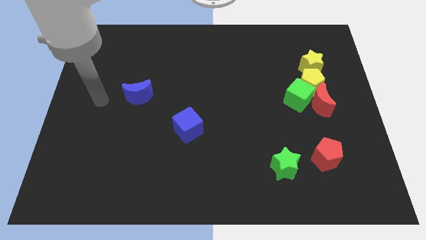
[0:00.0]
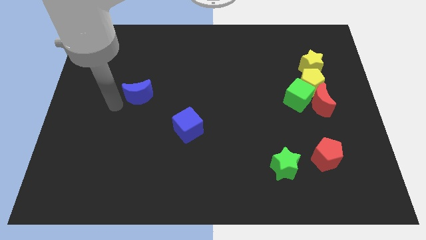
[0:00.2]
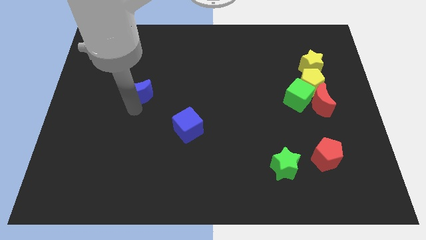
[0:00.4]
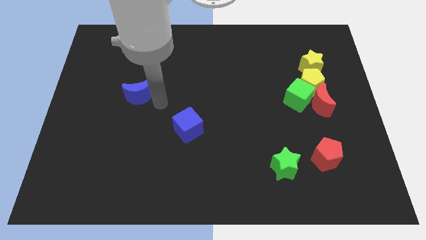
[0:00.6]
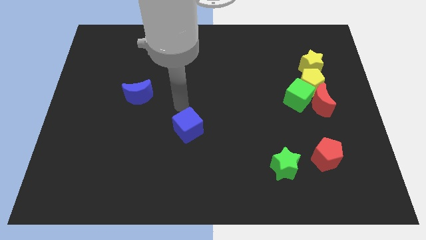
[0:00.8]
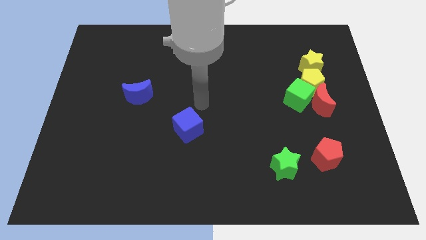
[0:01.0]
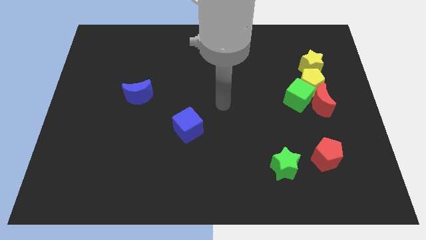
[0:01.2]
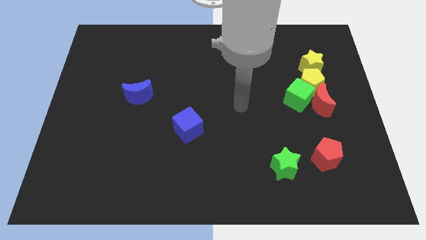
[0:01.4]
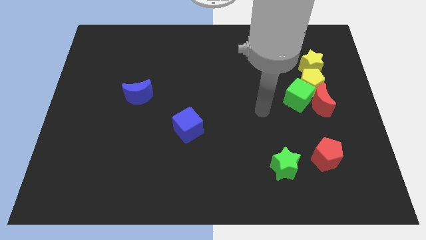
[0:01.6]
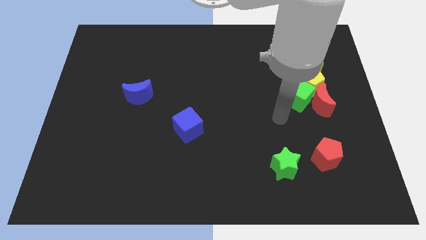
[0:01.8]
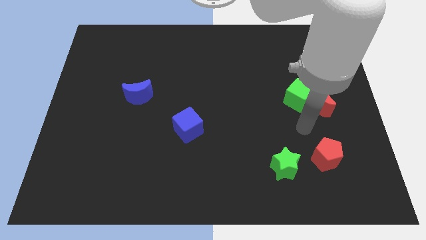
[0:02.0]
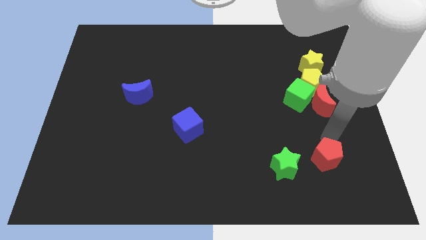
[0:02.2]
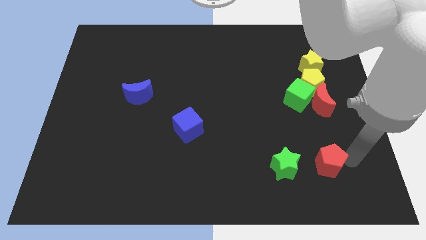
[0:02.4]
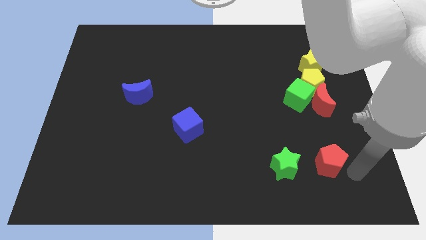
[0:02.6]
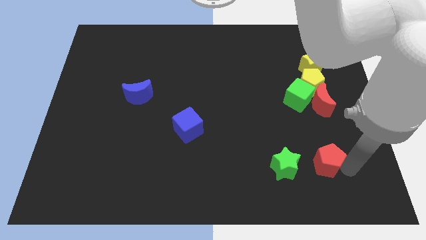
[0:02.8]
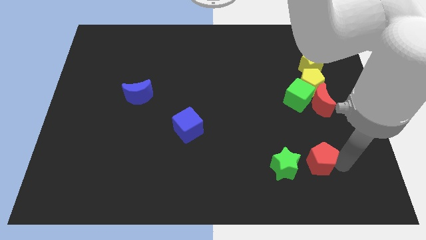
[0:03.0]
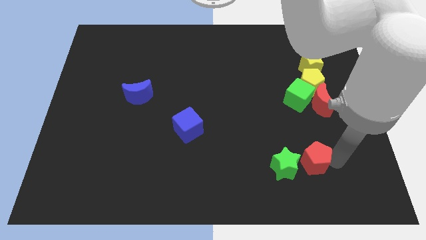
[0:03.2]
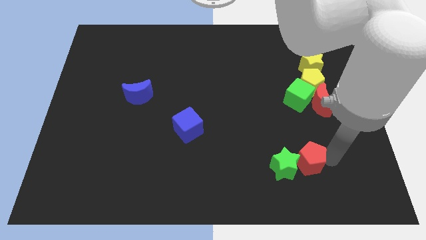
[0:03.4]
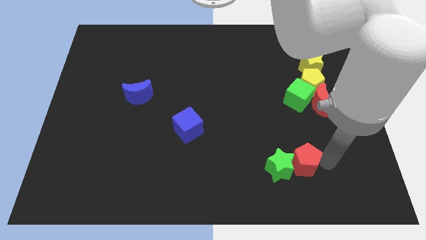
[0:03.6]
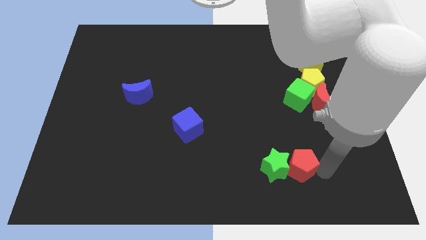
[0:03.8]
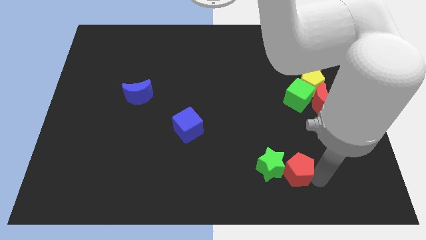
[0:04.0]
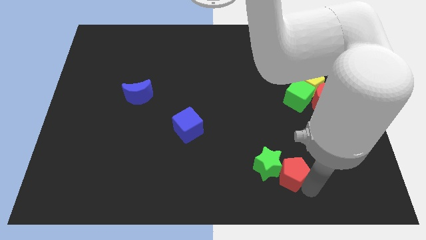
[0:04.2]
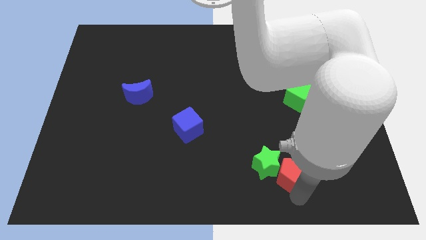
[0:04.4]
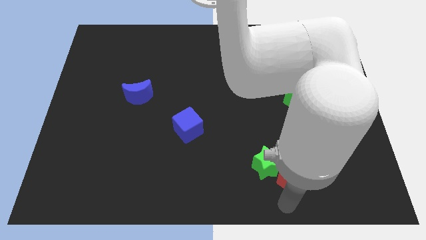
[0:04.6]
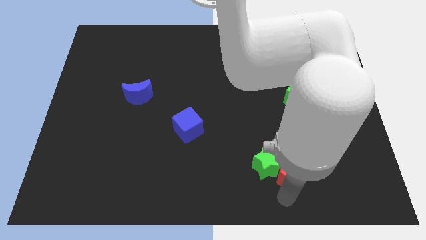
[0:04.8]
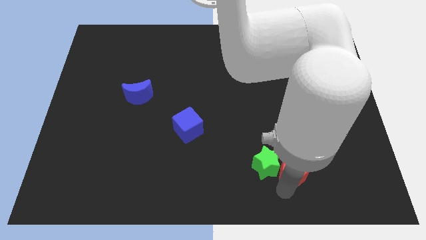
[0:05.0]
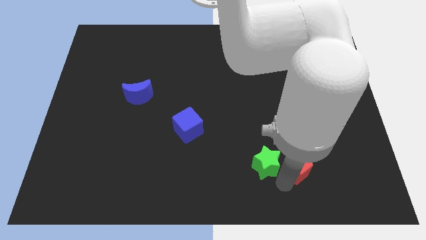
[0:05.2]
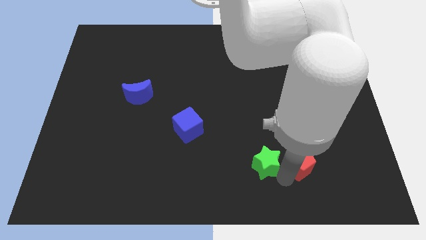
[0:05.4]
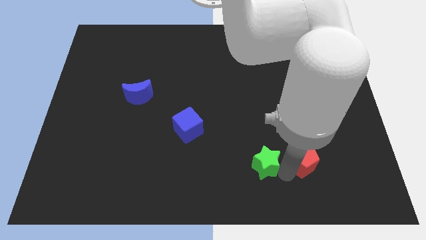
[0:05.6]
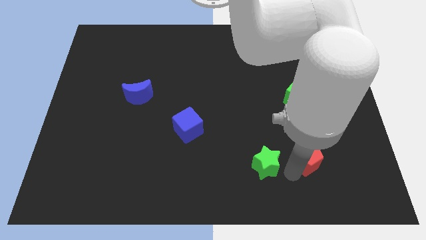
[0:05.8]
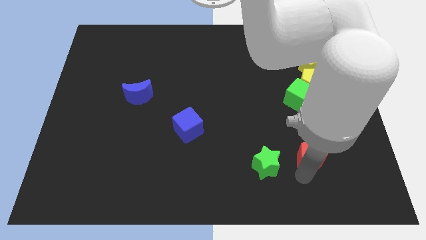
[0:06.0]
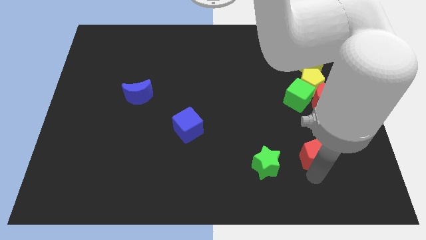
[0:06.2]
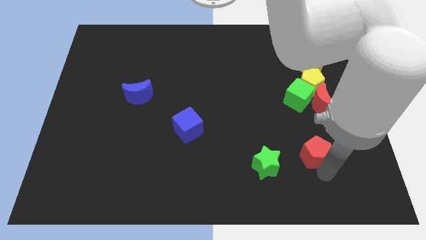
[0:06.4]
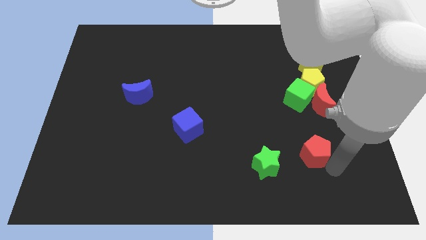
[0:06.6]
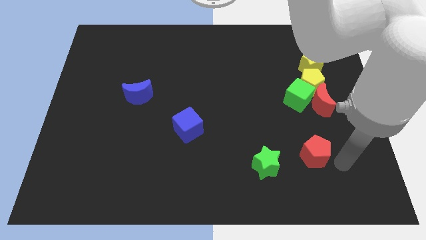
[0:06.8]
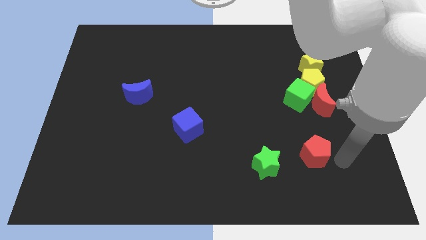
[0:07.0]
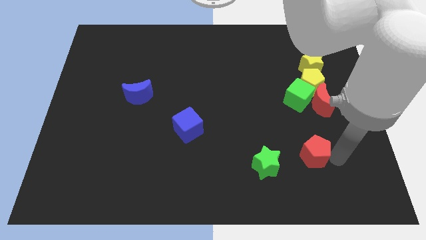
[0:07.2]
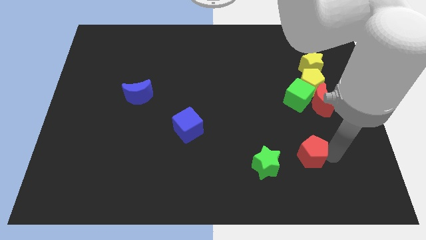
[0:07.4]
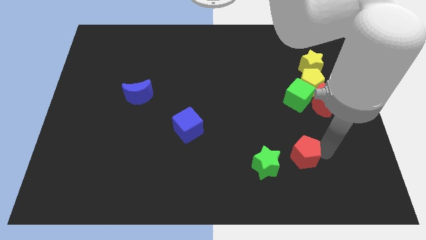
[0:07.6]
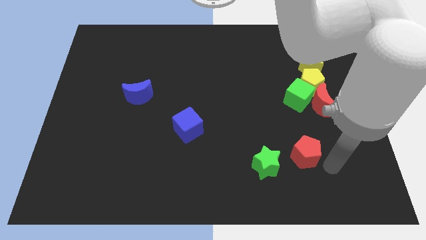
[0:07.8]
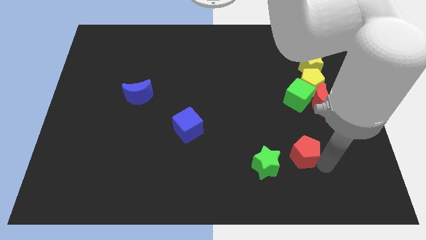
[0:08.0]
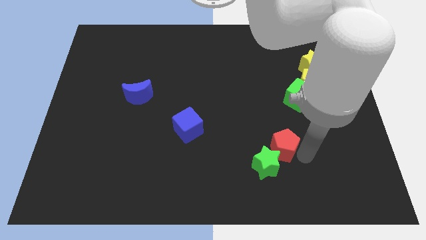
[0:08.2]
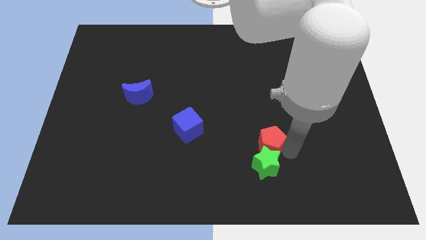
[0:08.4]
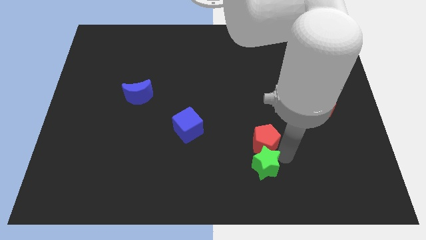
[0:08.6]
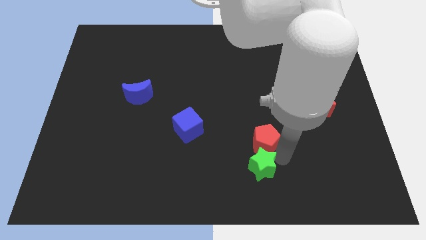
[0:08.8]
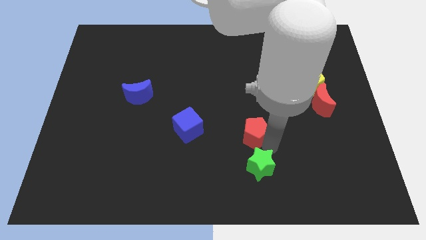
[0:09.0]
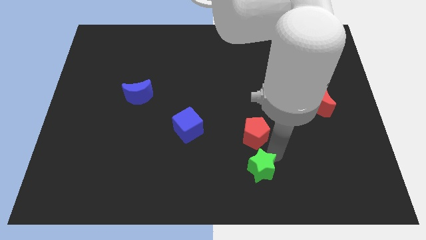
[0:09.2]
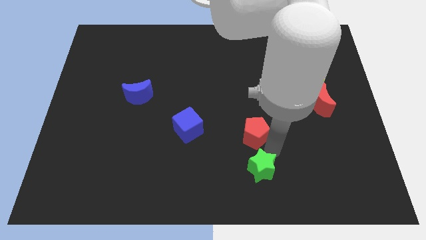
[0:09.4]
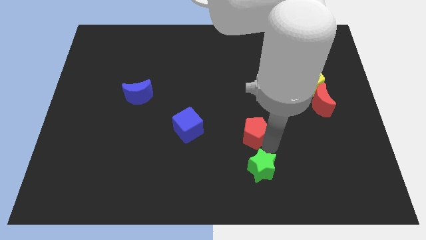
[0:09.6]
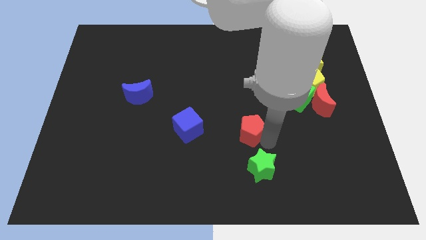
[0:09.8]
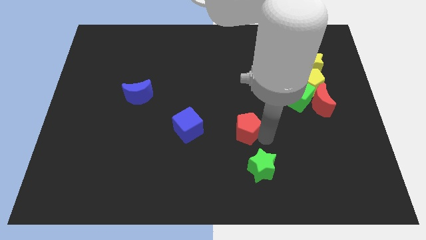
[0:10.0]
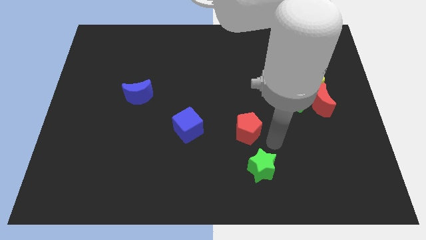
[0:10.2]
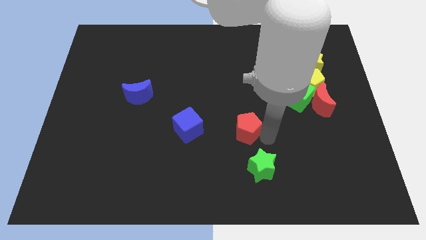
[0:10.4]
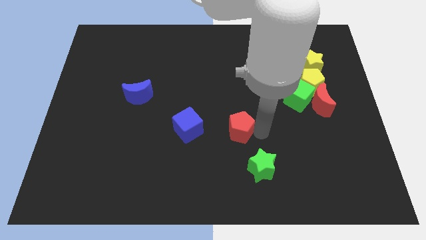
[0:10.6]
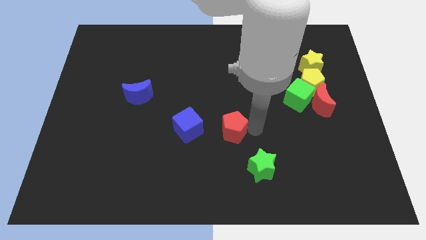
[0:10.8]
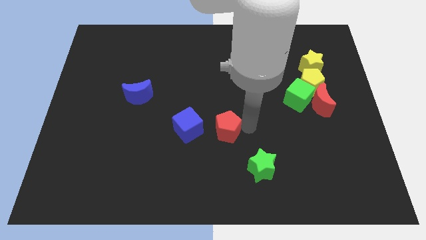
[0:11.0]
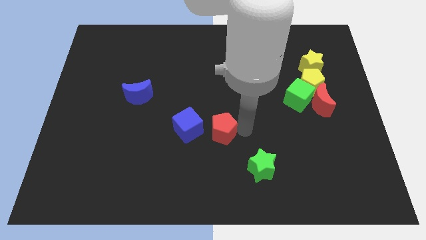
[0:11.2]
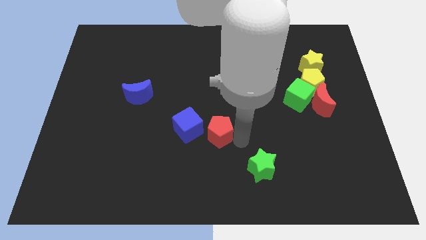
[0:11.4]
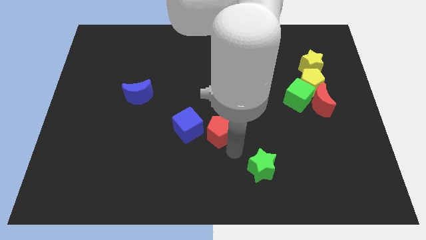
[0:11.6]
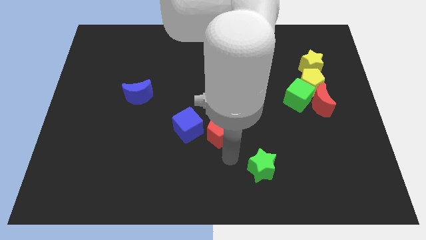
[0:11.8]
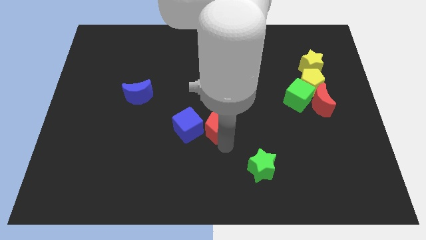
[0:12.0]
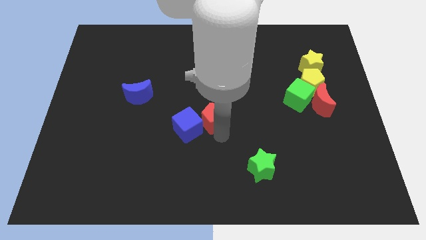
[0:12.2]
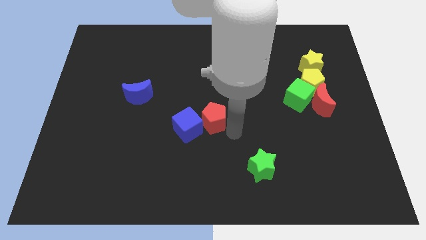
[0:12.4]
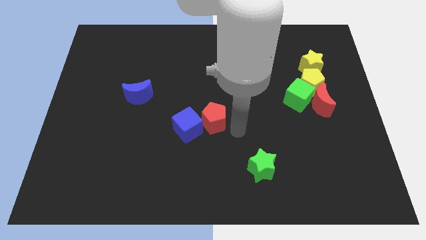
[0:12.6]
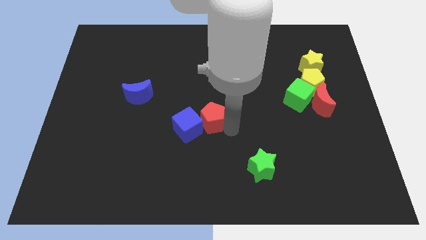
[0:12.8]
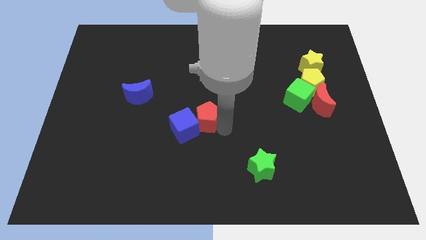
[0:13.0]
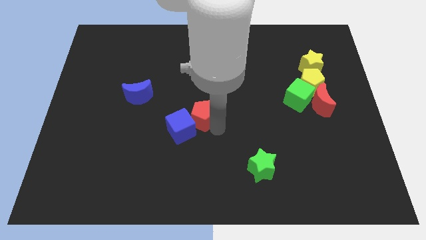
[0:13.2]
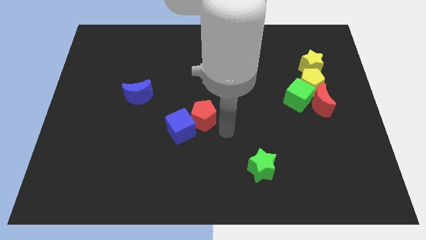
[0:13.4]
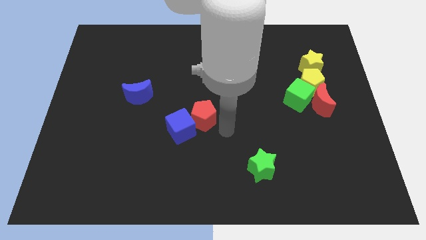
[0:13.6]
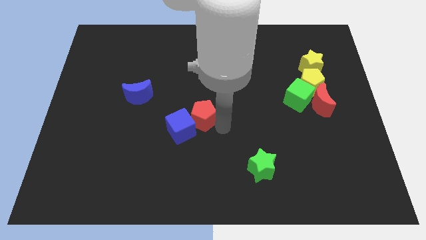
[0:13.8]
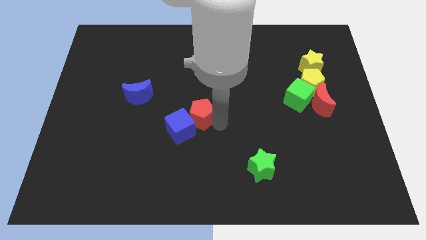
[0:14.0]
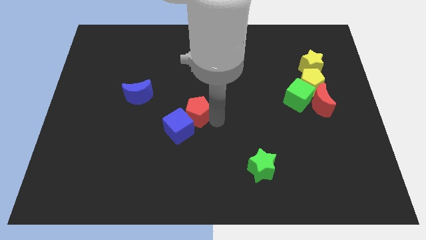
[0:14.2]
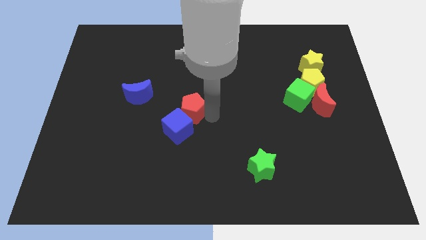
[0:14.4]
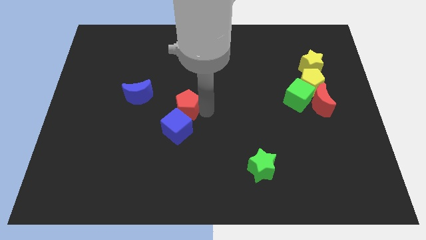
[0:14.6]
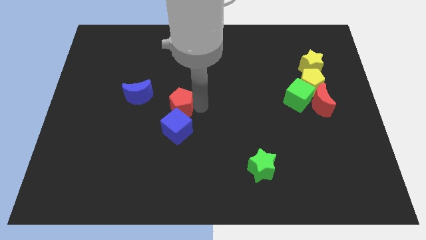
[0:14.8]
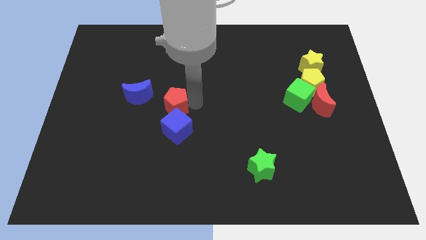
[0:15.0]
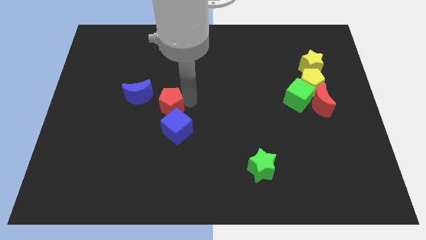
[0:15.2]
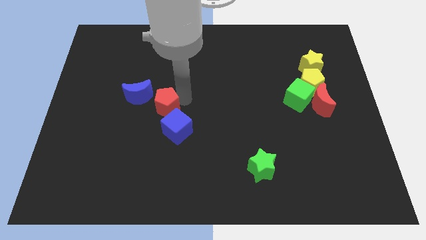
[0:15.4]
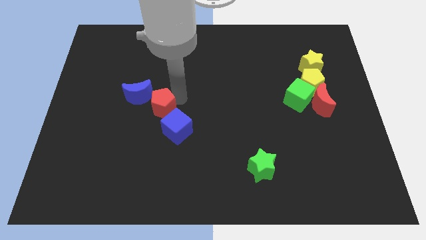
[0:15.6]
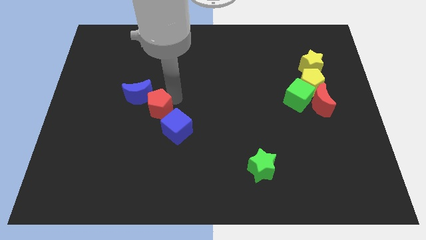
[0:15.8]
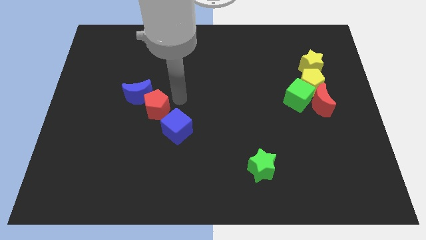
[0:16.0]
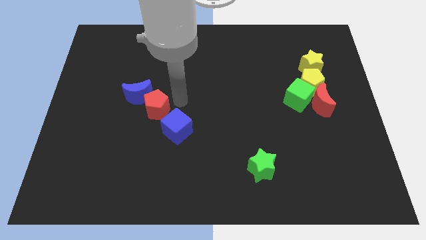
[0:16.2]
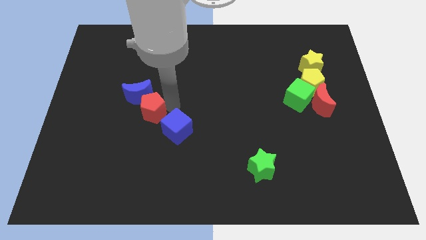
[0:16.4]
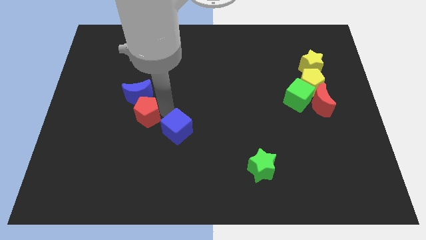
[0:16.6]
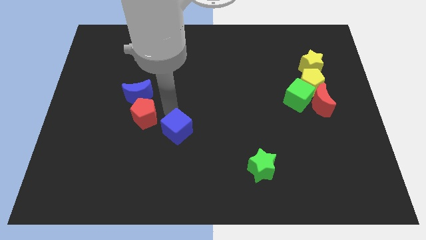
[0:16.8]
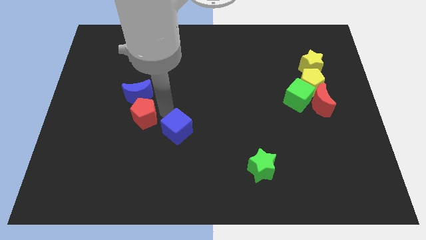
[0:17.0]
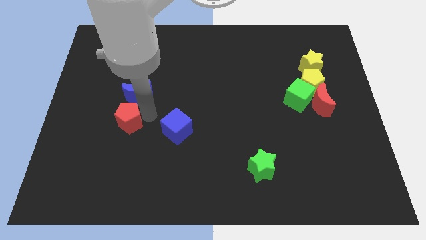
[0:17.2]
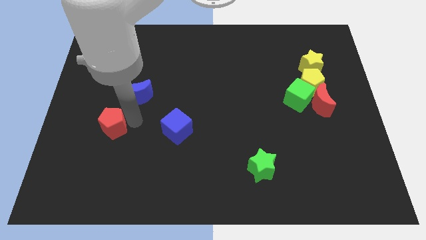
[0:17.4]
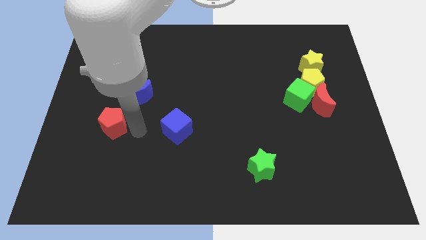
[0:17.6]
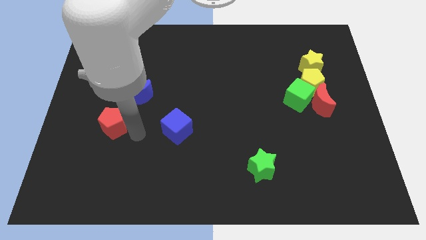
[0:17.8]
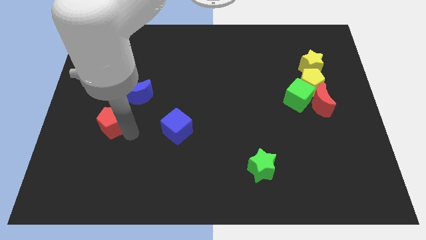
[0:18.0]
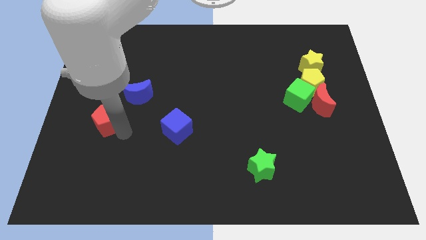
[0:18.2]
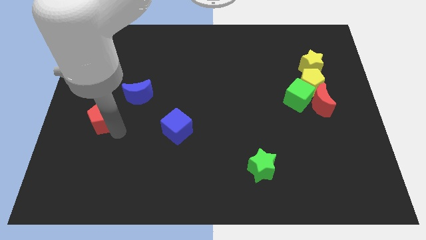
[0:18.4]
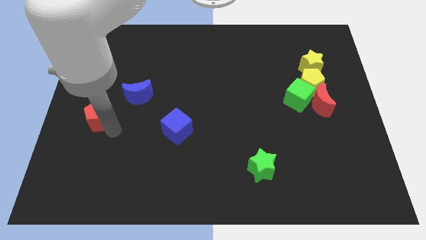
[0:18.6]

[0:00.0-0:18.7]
slide the red pentagon to the left side of the board
